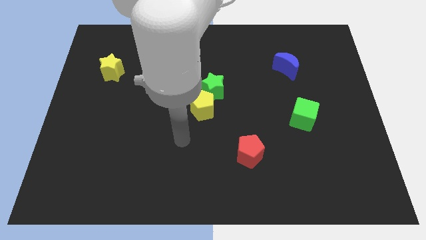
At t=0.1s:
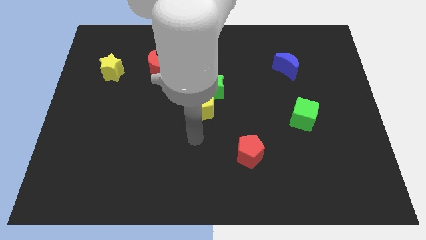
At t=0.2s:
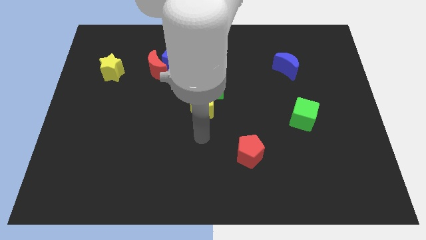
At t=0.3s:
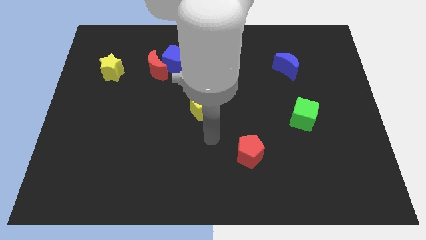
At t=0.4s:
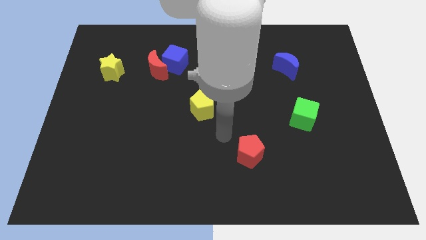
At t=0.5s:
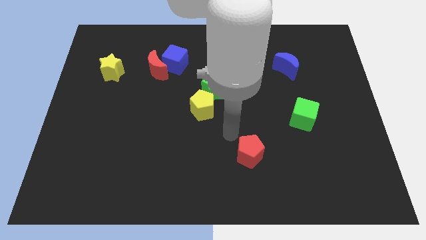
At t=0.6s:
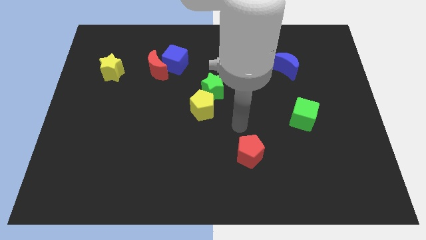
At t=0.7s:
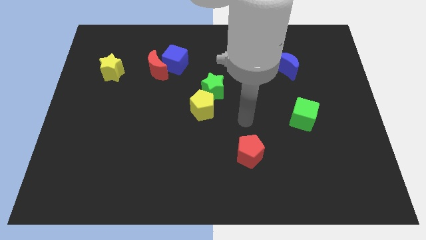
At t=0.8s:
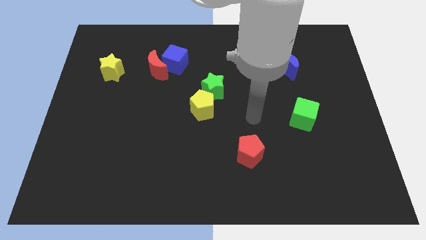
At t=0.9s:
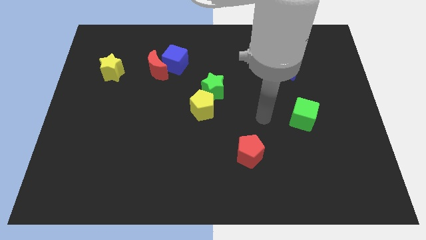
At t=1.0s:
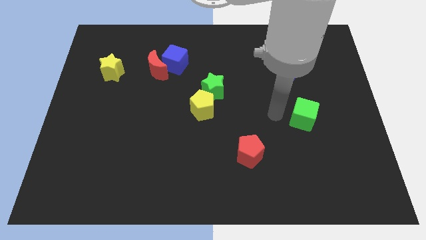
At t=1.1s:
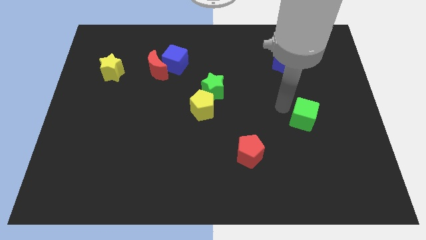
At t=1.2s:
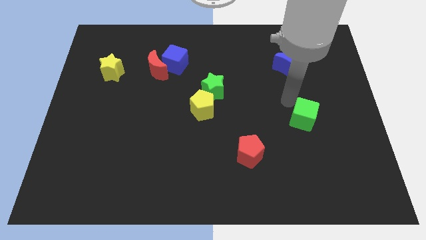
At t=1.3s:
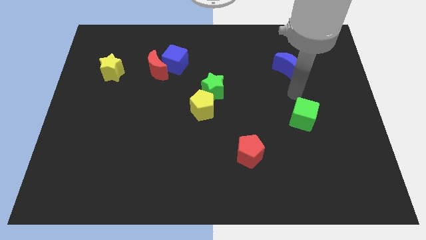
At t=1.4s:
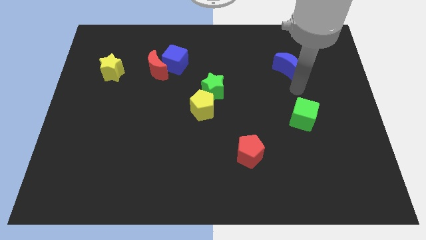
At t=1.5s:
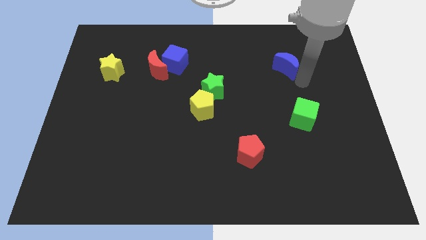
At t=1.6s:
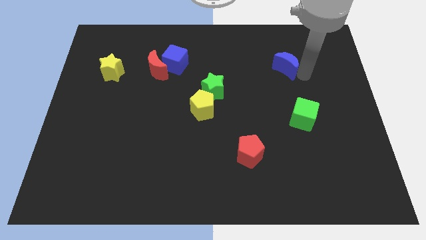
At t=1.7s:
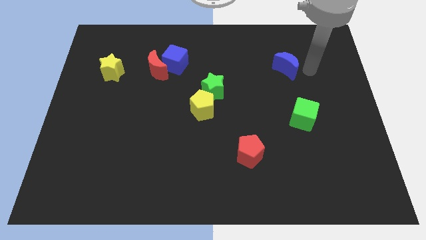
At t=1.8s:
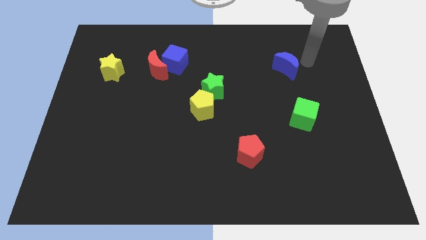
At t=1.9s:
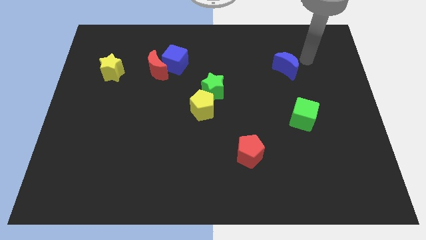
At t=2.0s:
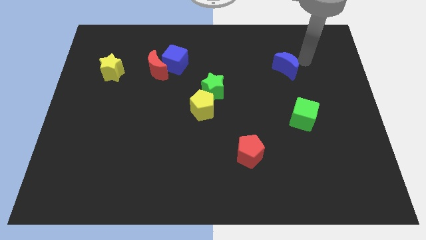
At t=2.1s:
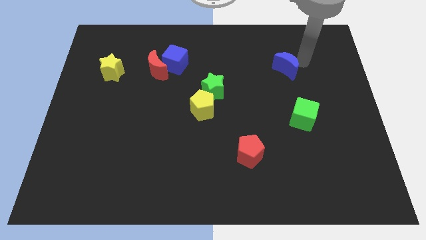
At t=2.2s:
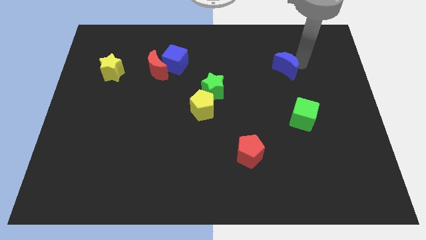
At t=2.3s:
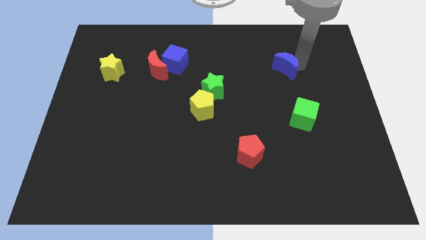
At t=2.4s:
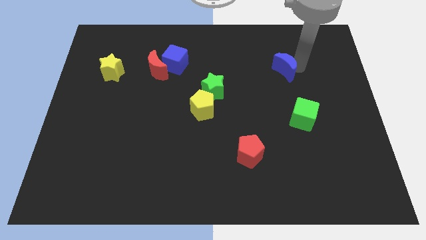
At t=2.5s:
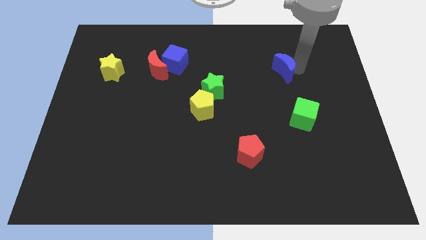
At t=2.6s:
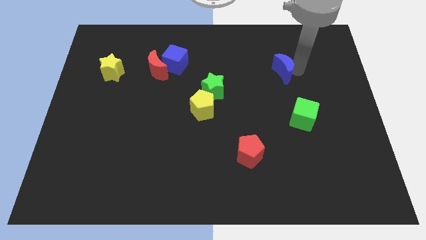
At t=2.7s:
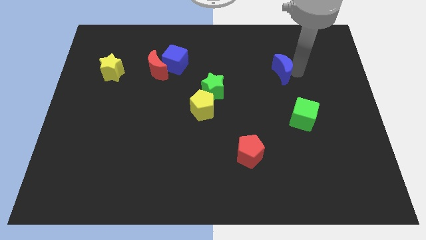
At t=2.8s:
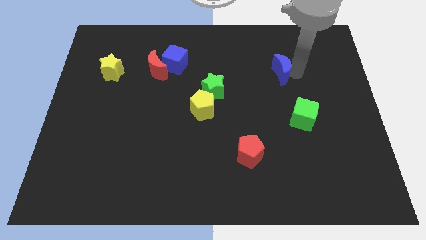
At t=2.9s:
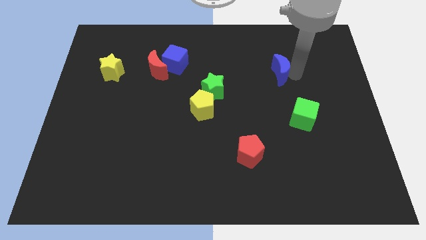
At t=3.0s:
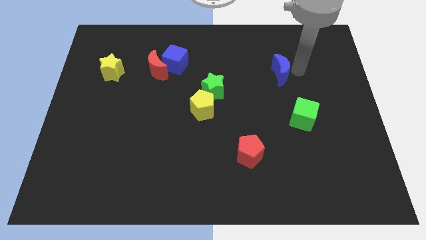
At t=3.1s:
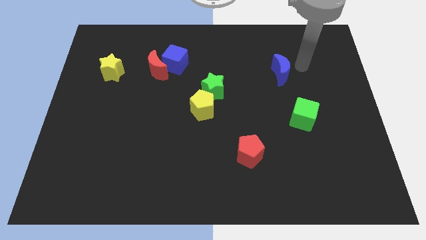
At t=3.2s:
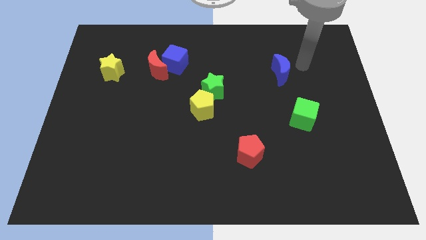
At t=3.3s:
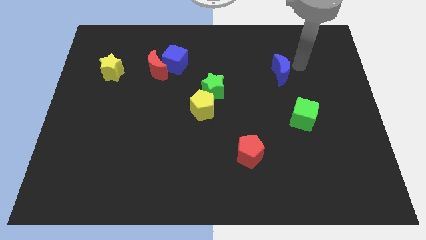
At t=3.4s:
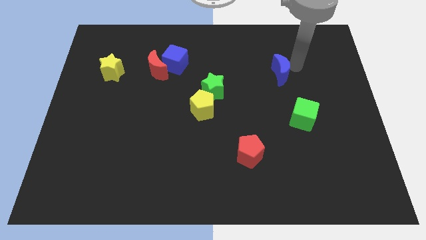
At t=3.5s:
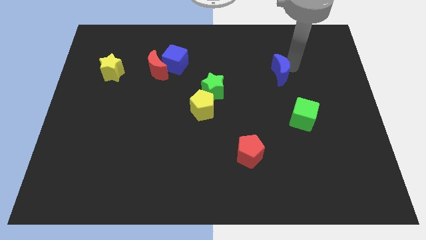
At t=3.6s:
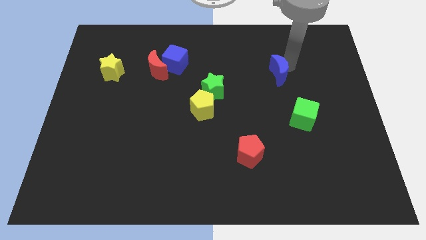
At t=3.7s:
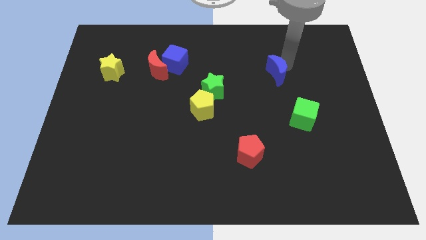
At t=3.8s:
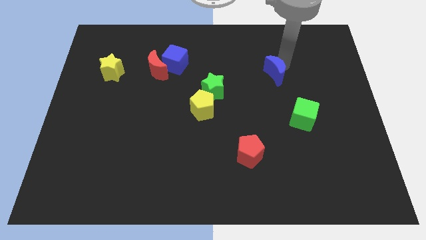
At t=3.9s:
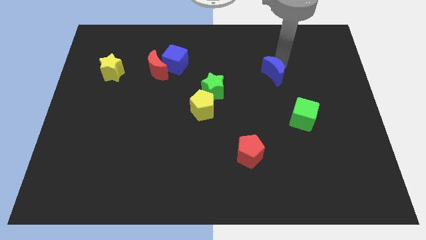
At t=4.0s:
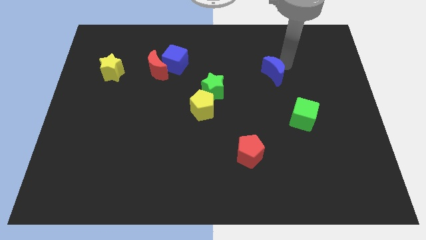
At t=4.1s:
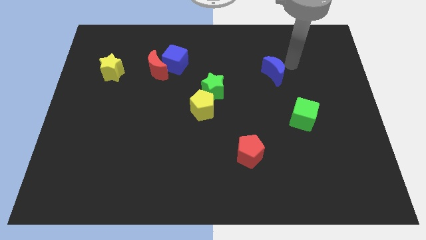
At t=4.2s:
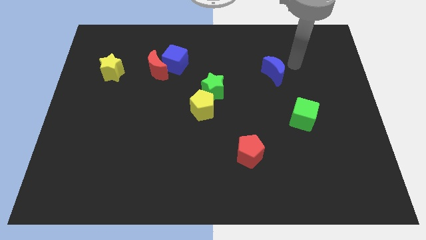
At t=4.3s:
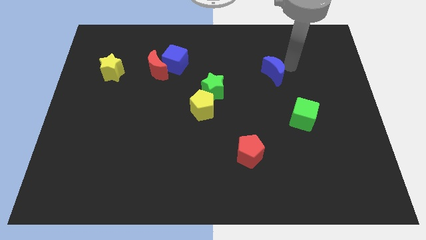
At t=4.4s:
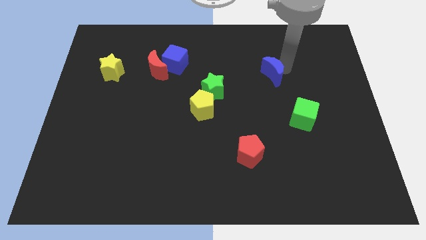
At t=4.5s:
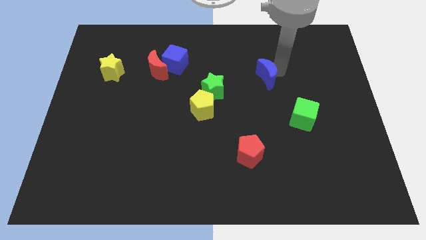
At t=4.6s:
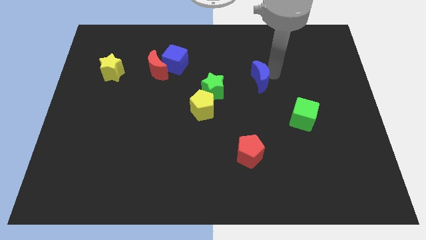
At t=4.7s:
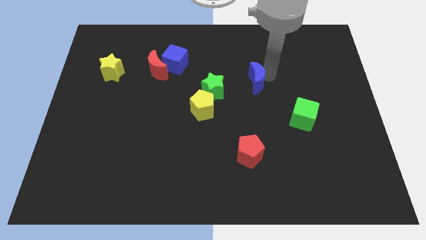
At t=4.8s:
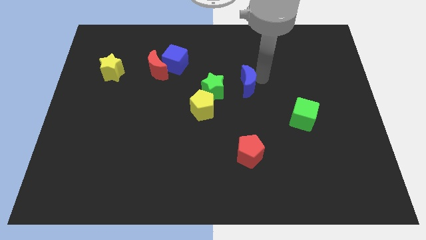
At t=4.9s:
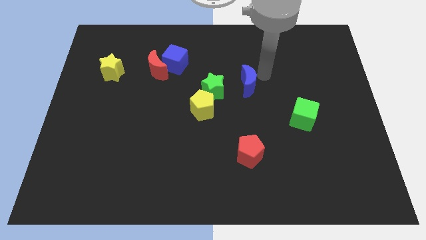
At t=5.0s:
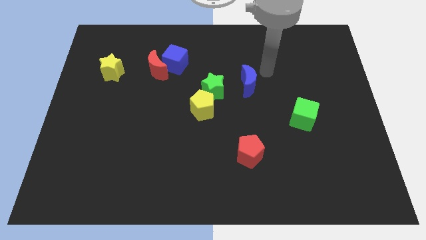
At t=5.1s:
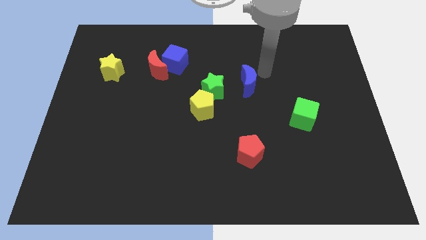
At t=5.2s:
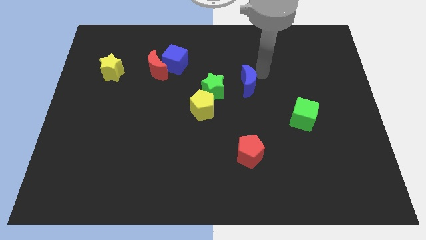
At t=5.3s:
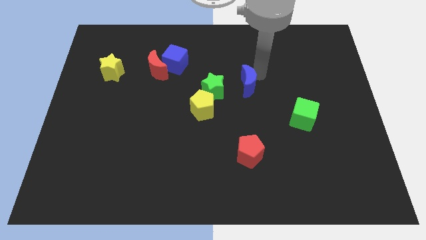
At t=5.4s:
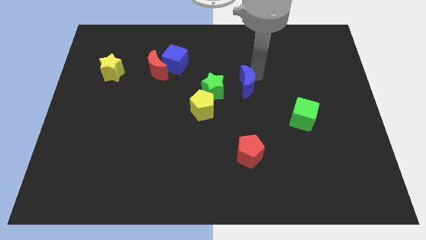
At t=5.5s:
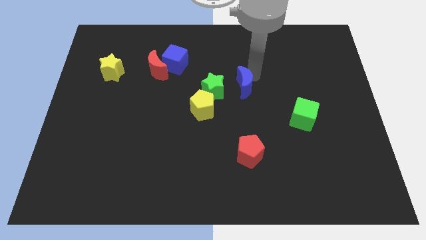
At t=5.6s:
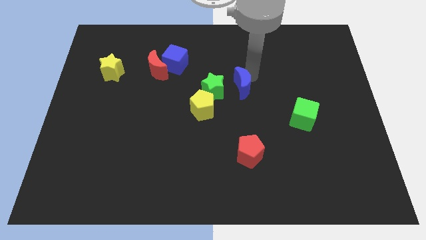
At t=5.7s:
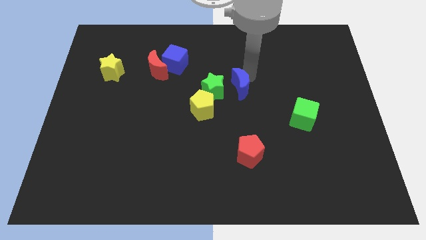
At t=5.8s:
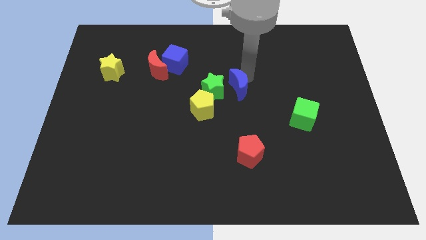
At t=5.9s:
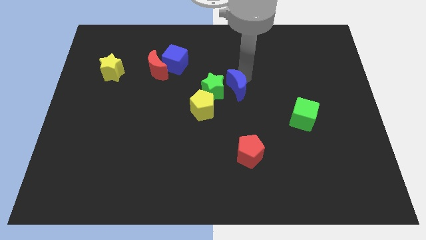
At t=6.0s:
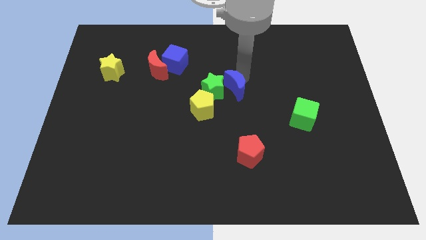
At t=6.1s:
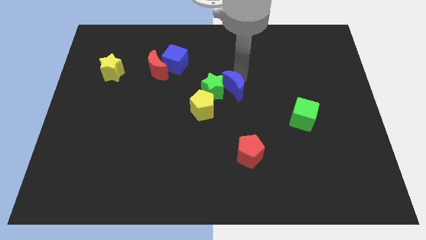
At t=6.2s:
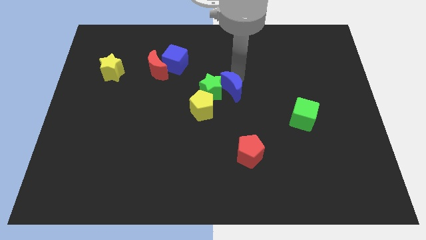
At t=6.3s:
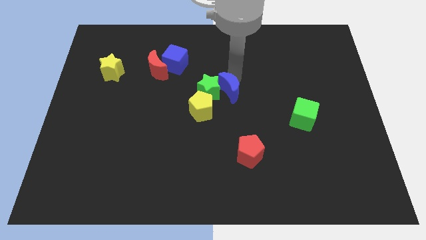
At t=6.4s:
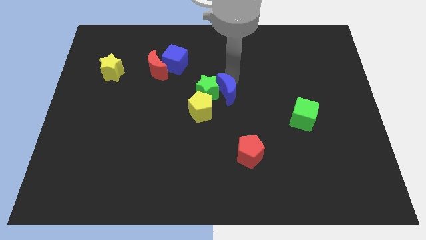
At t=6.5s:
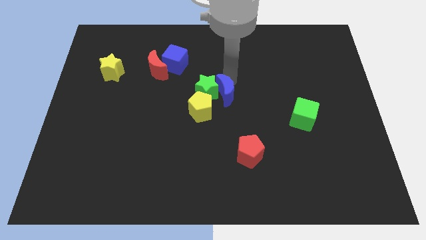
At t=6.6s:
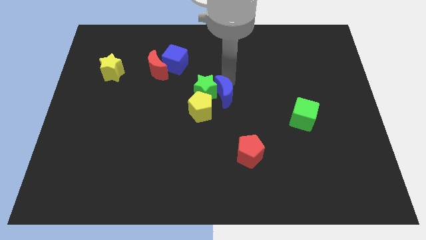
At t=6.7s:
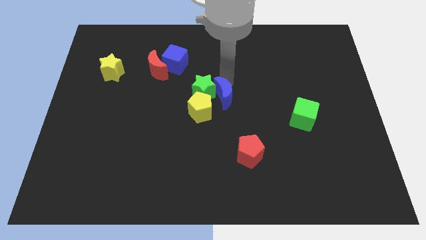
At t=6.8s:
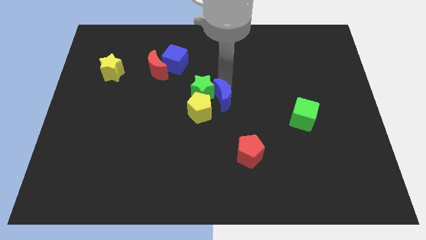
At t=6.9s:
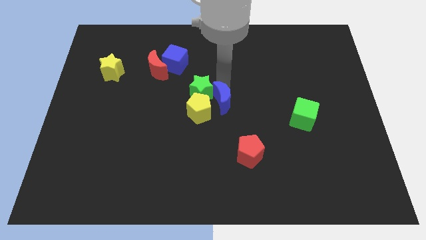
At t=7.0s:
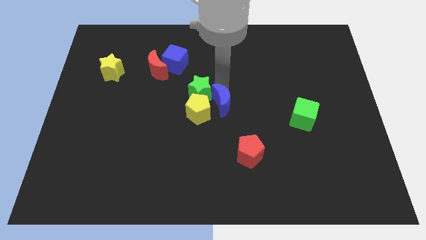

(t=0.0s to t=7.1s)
push the blue moon next to the yellow pentagon
